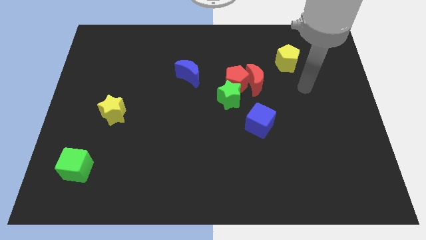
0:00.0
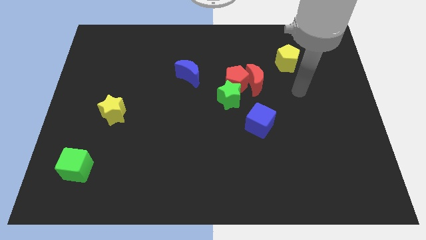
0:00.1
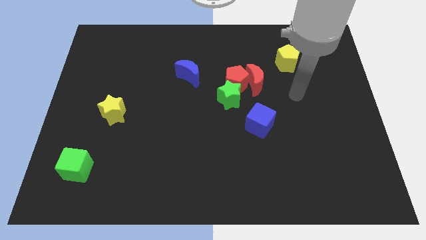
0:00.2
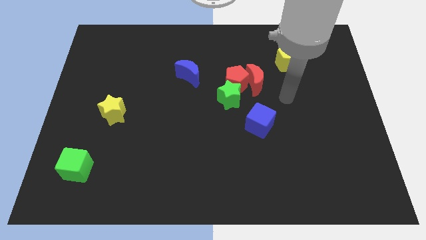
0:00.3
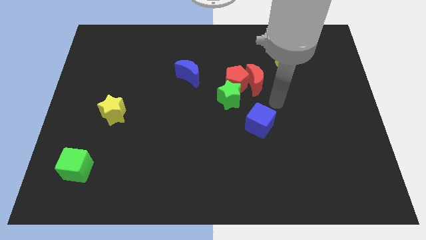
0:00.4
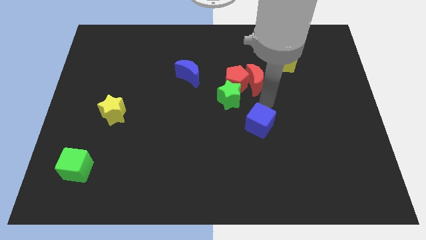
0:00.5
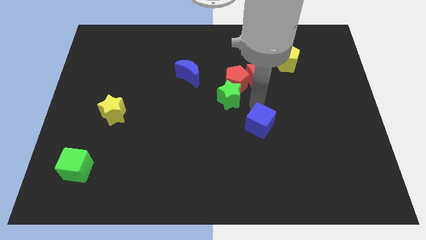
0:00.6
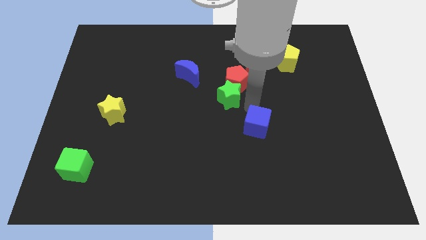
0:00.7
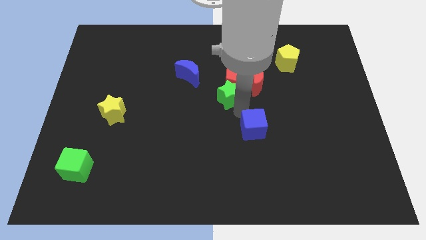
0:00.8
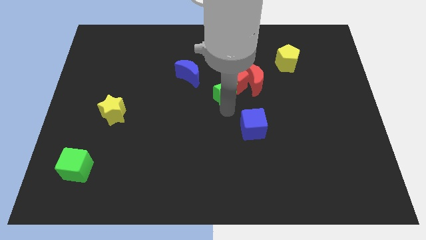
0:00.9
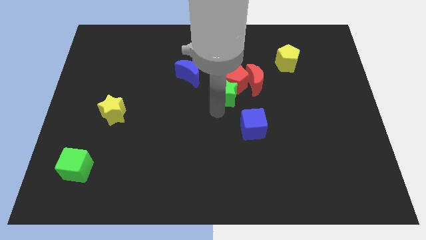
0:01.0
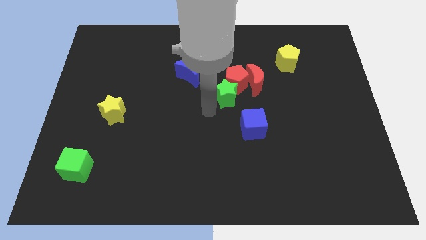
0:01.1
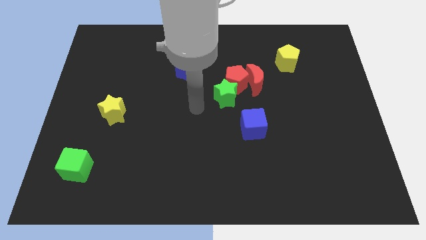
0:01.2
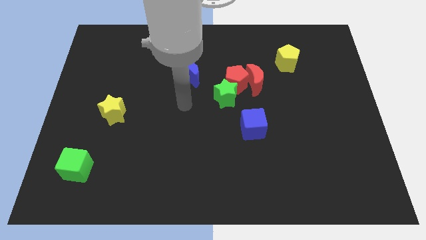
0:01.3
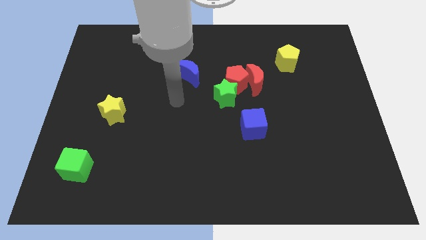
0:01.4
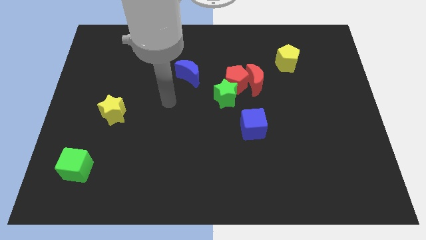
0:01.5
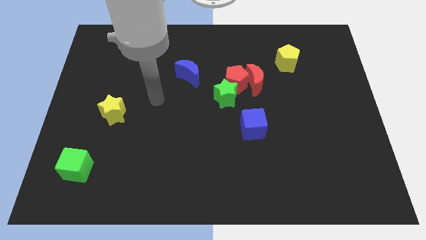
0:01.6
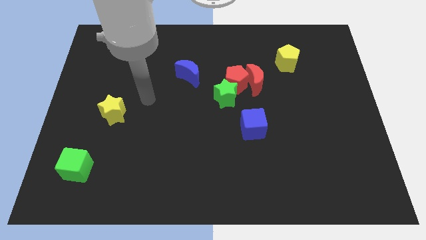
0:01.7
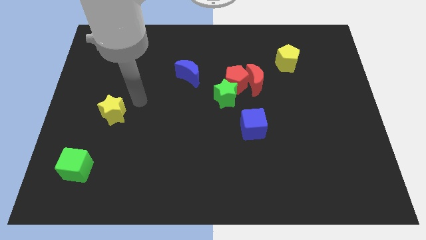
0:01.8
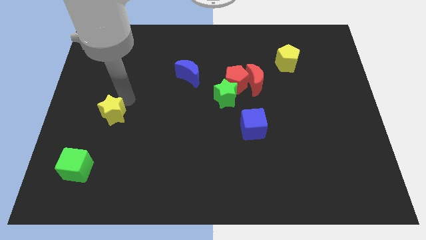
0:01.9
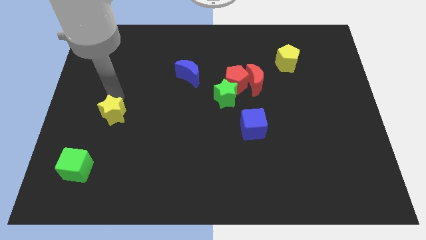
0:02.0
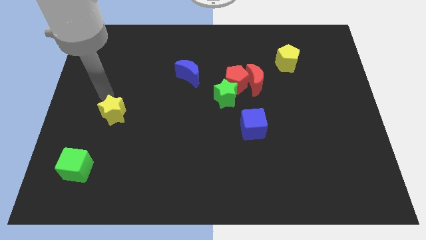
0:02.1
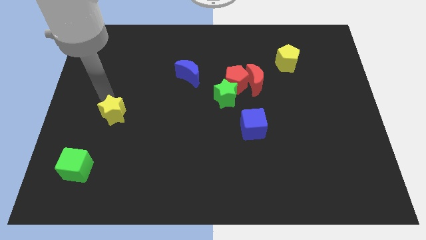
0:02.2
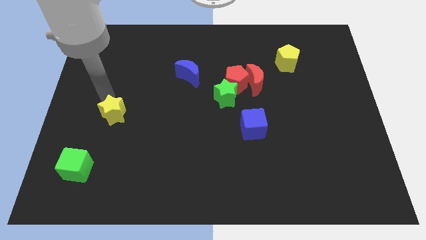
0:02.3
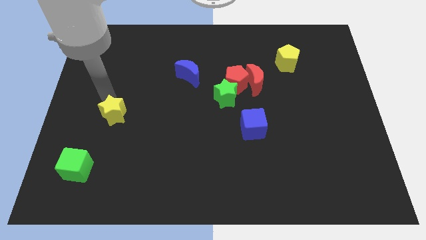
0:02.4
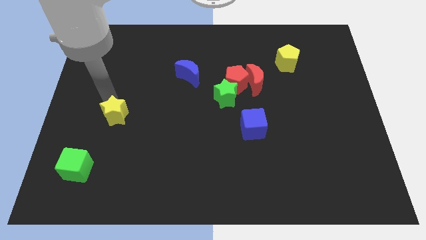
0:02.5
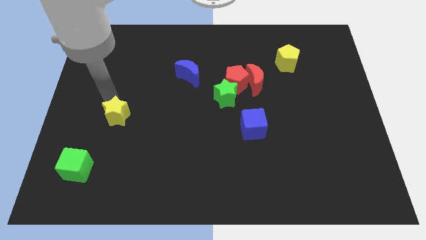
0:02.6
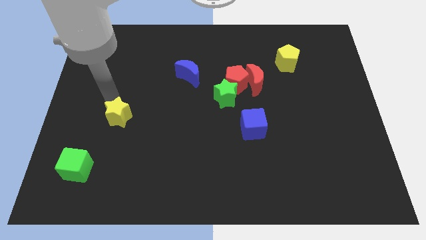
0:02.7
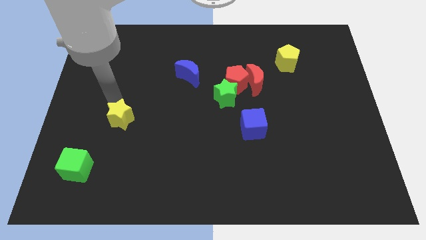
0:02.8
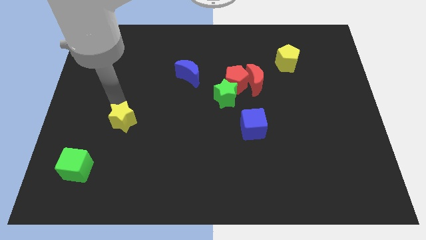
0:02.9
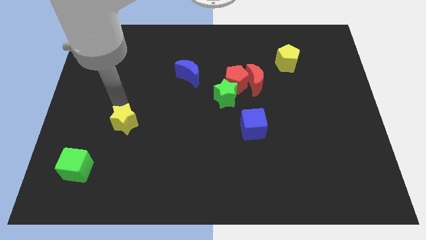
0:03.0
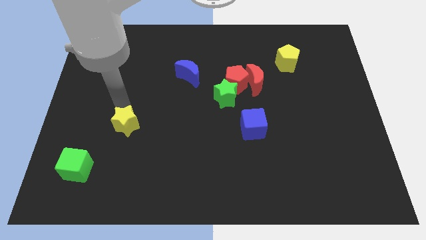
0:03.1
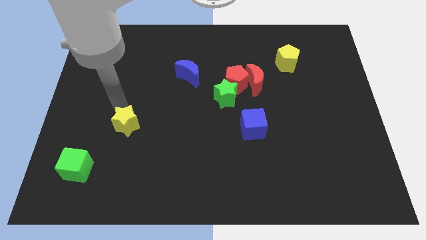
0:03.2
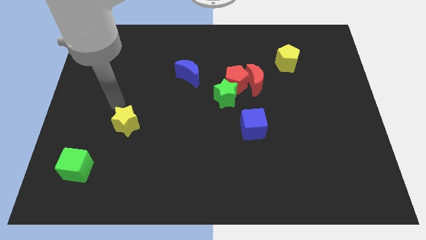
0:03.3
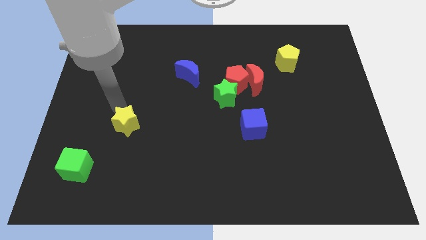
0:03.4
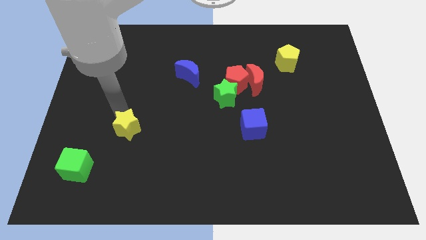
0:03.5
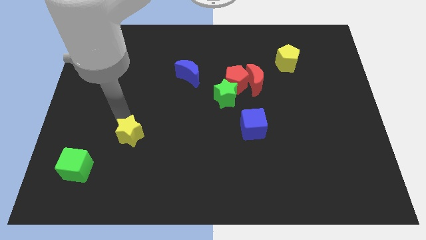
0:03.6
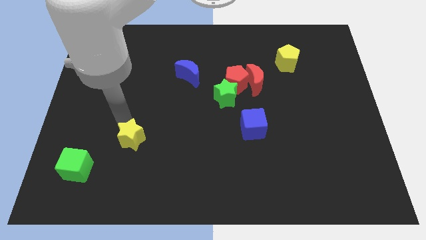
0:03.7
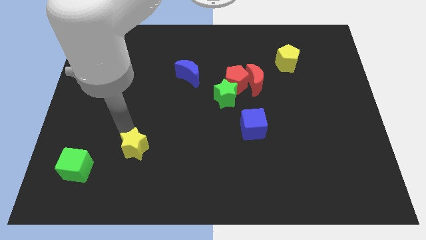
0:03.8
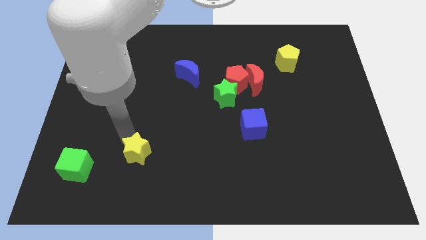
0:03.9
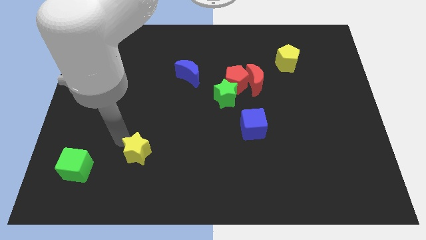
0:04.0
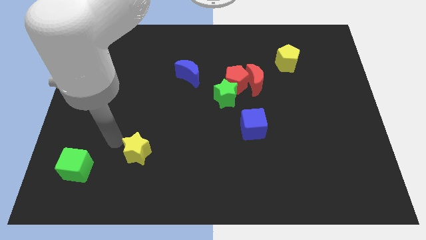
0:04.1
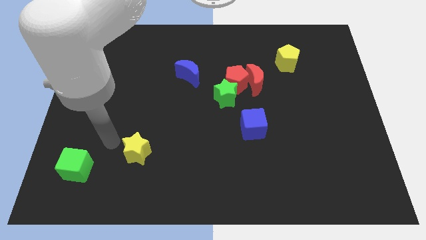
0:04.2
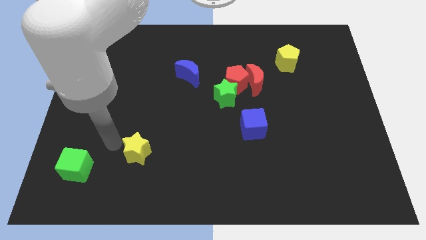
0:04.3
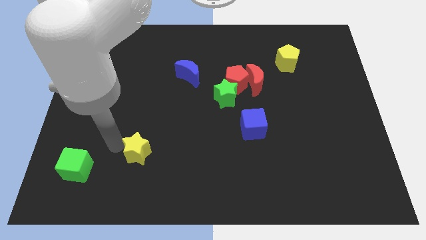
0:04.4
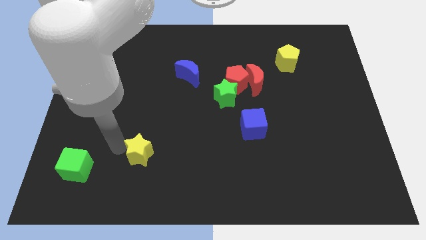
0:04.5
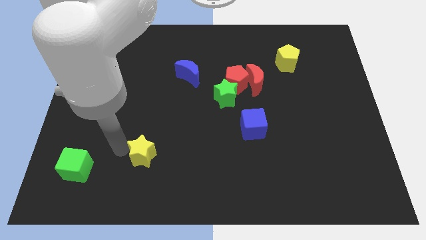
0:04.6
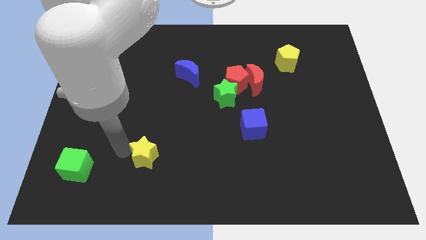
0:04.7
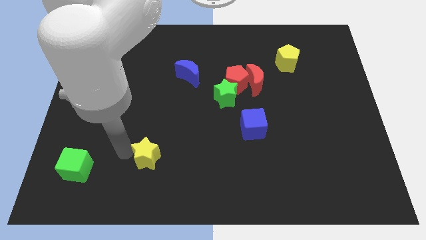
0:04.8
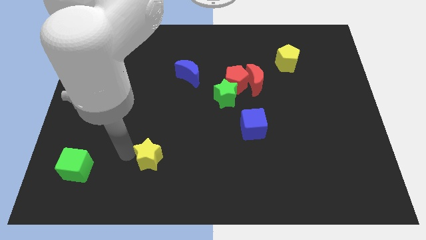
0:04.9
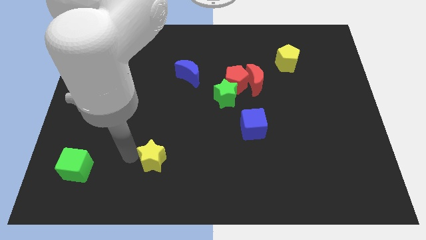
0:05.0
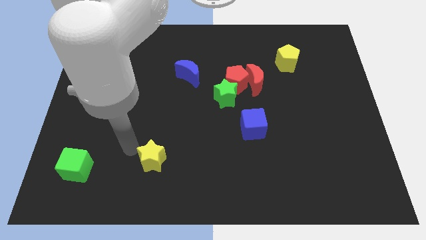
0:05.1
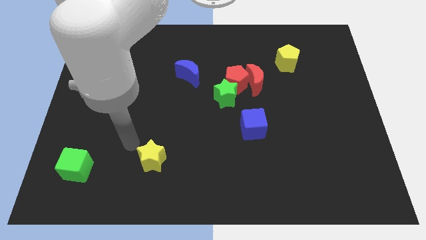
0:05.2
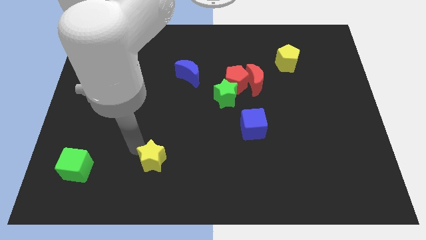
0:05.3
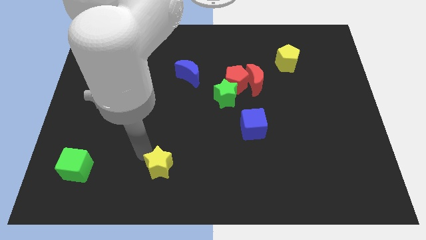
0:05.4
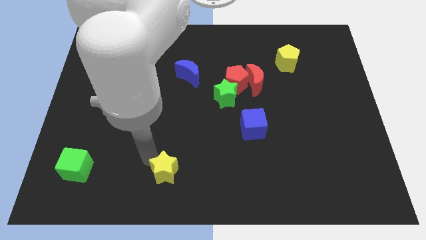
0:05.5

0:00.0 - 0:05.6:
put the yellow star to the bottom side

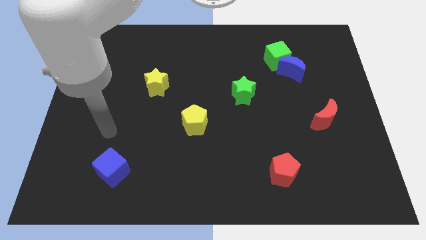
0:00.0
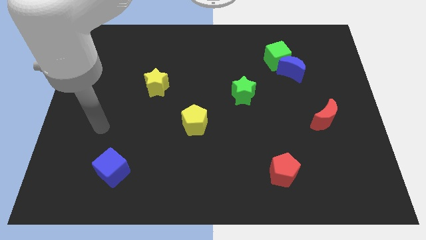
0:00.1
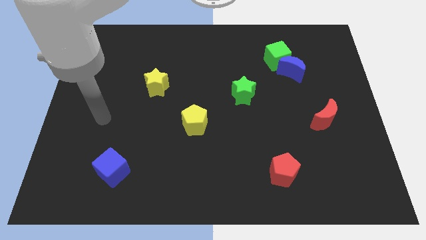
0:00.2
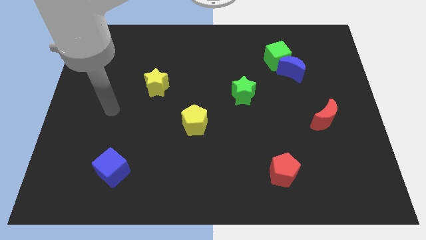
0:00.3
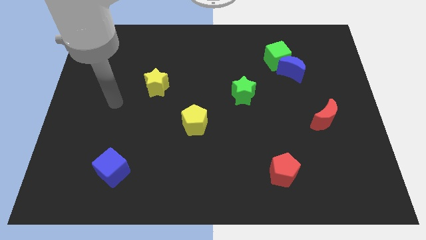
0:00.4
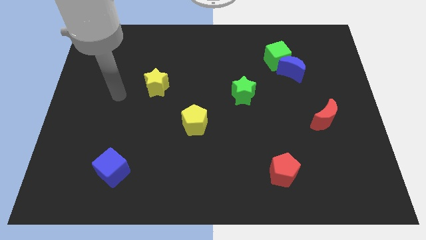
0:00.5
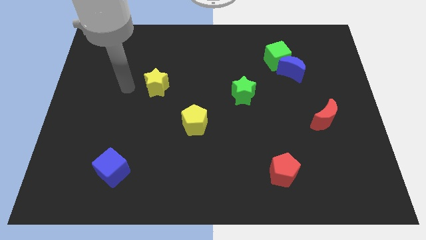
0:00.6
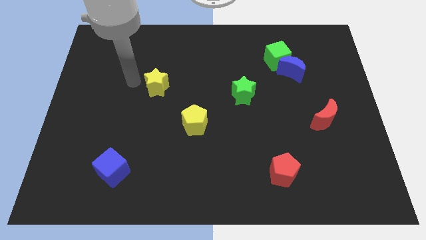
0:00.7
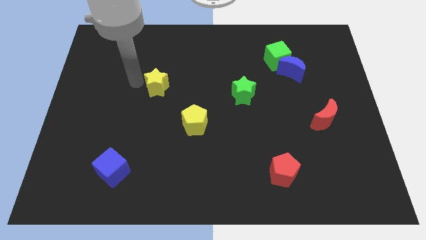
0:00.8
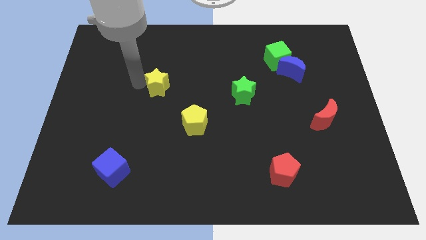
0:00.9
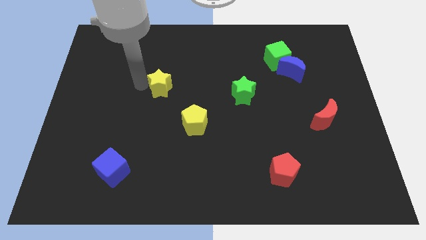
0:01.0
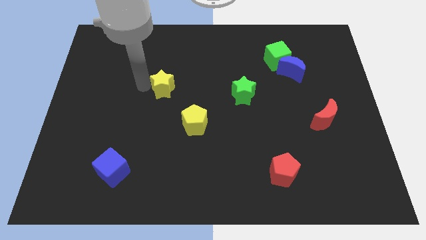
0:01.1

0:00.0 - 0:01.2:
slide the yellow star to the middle of the board
